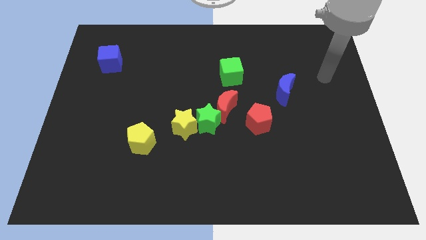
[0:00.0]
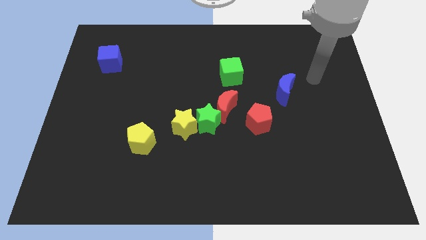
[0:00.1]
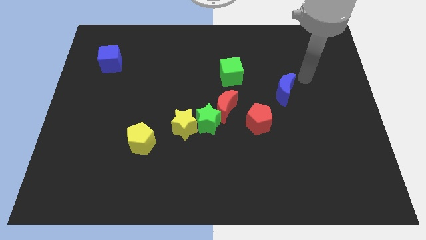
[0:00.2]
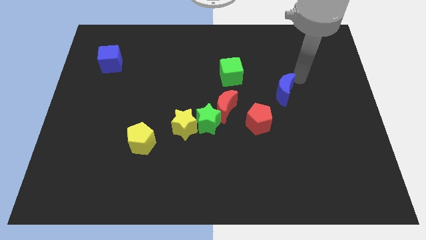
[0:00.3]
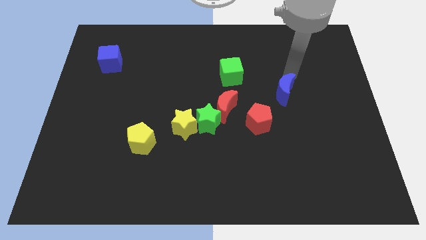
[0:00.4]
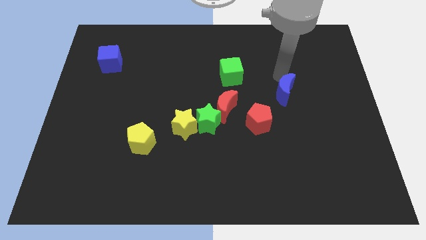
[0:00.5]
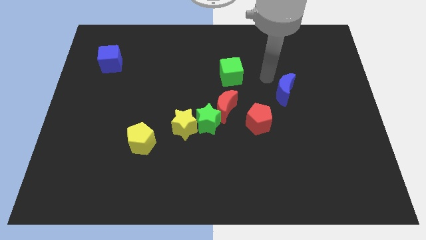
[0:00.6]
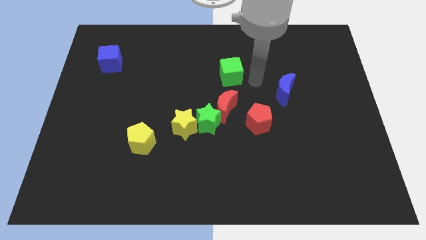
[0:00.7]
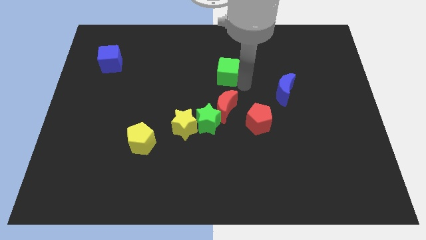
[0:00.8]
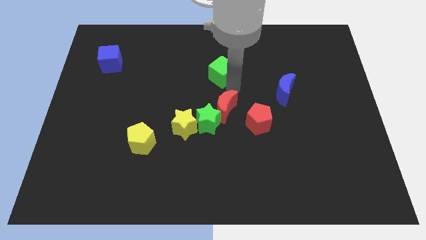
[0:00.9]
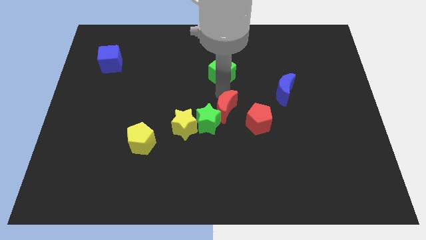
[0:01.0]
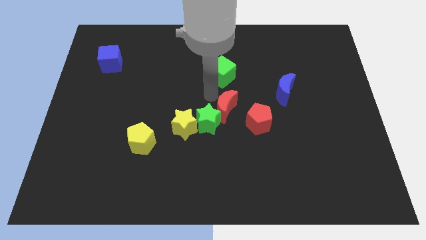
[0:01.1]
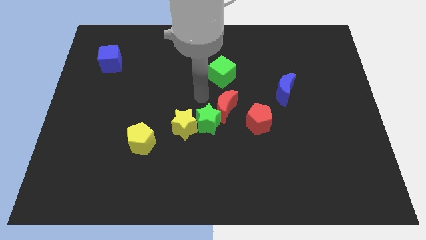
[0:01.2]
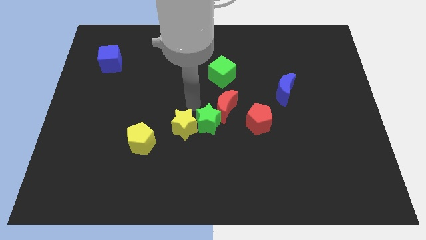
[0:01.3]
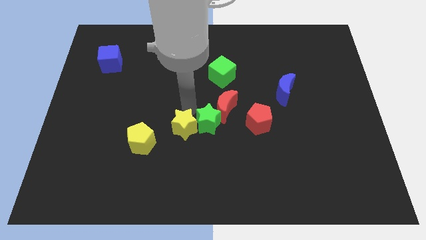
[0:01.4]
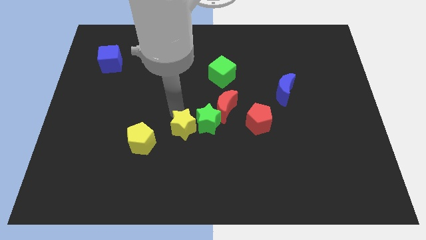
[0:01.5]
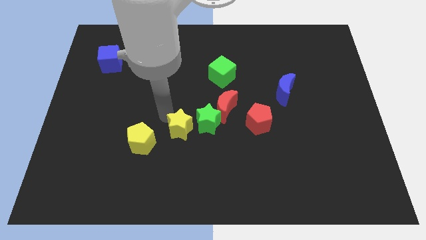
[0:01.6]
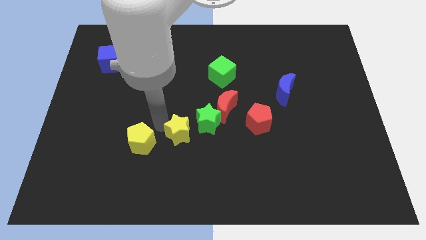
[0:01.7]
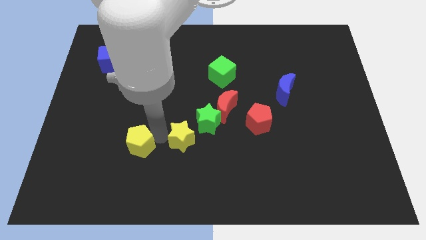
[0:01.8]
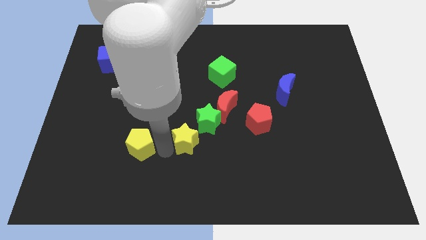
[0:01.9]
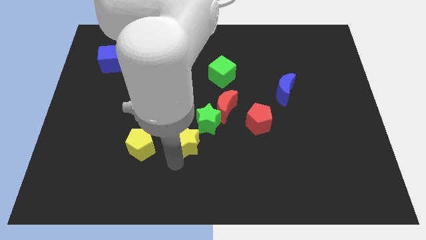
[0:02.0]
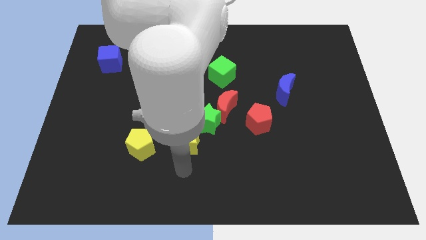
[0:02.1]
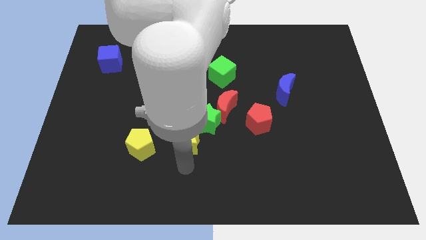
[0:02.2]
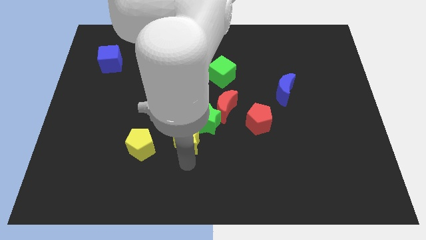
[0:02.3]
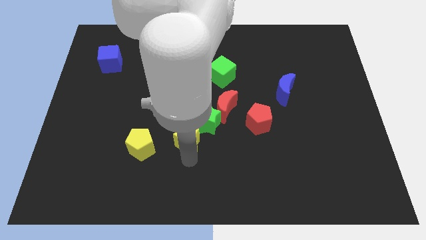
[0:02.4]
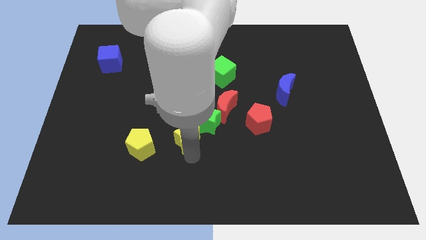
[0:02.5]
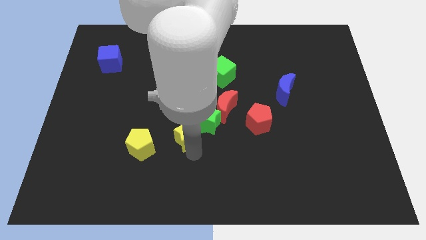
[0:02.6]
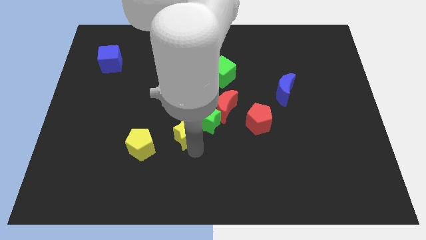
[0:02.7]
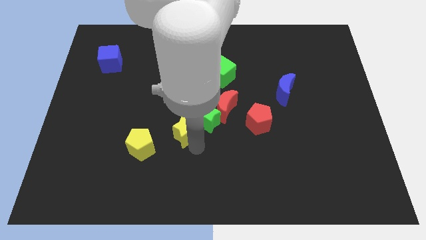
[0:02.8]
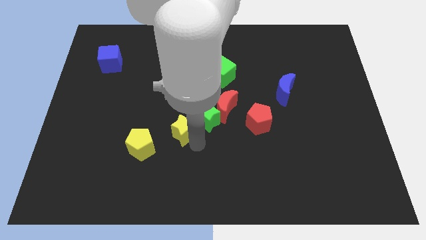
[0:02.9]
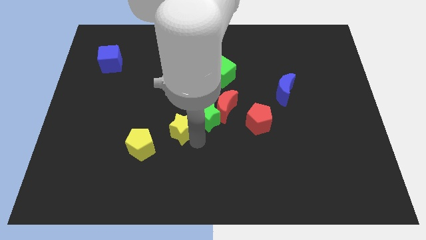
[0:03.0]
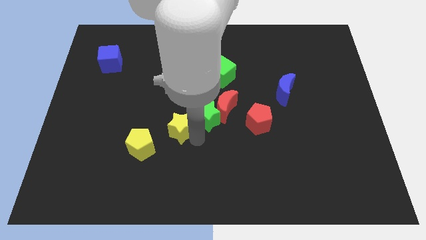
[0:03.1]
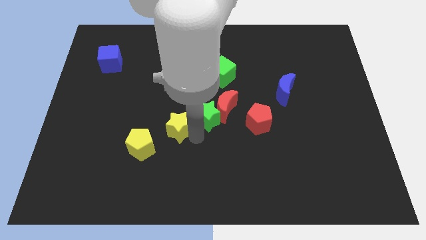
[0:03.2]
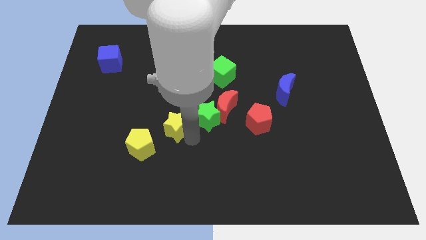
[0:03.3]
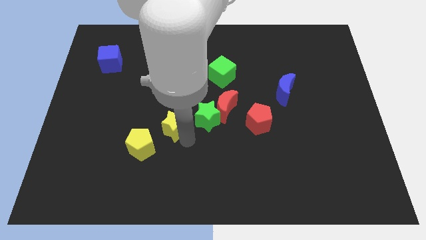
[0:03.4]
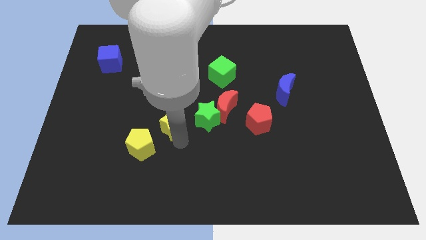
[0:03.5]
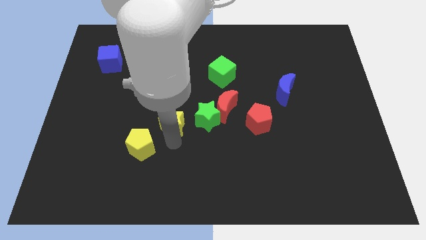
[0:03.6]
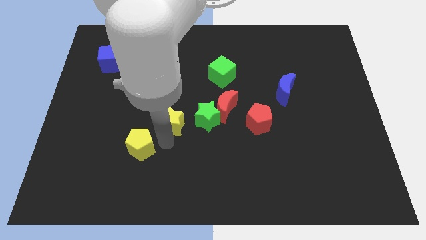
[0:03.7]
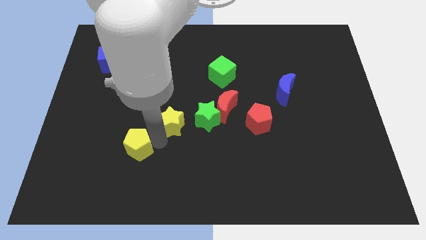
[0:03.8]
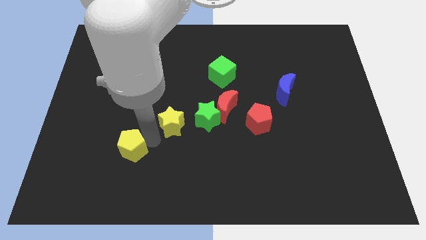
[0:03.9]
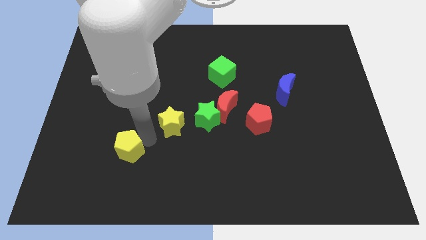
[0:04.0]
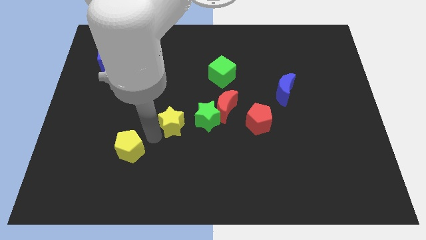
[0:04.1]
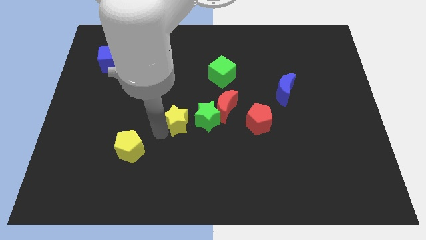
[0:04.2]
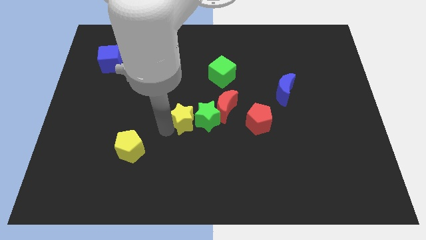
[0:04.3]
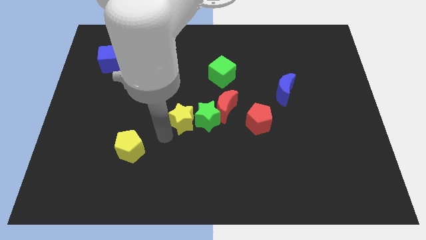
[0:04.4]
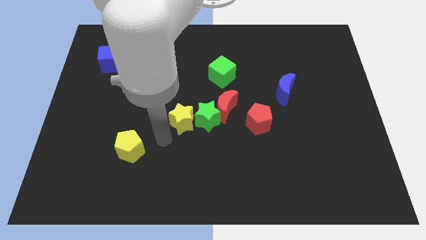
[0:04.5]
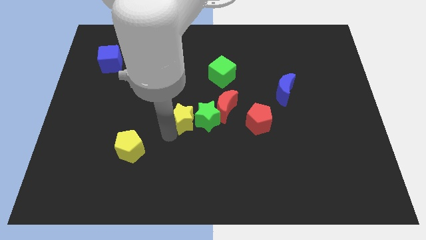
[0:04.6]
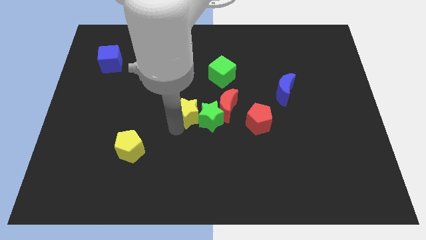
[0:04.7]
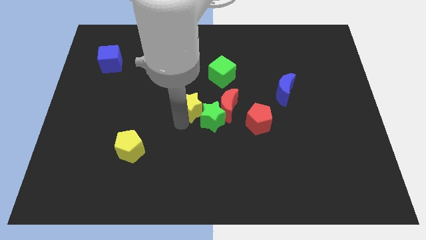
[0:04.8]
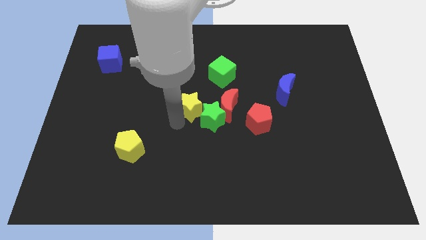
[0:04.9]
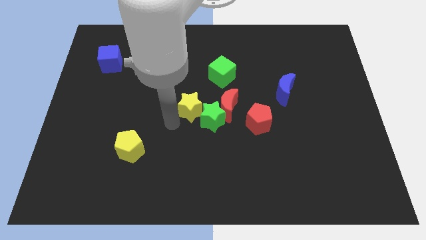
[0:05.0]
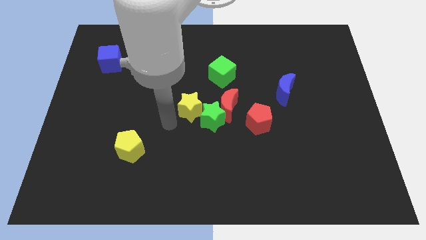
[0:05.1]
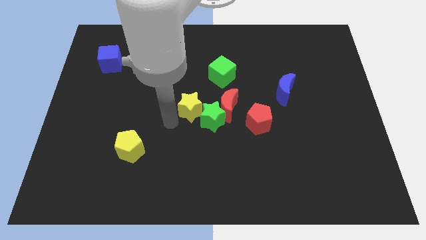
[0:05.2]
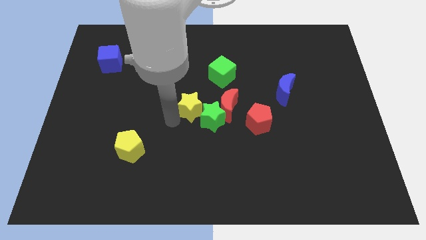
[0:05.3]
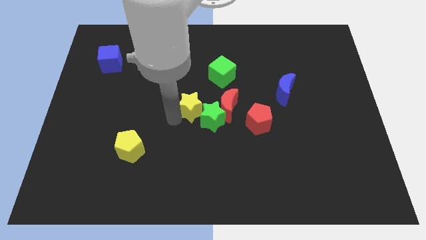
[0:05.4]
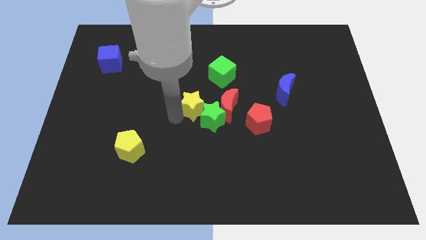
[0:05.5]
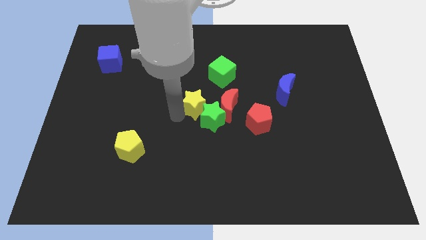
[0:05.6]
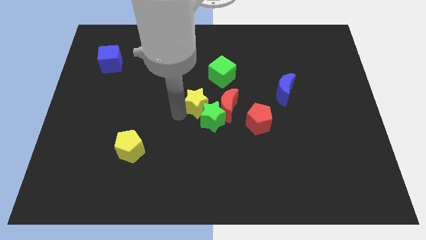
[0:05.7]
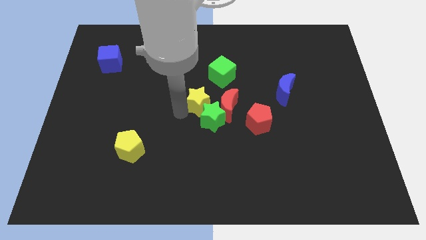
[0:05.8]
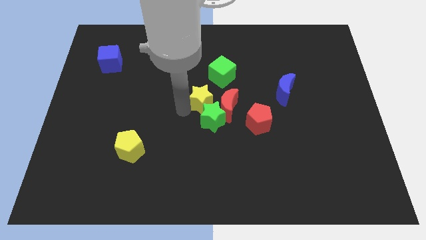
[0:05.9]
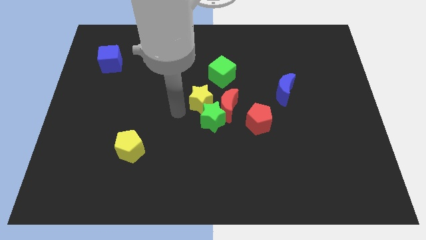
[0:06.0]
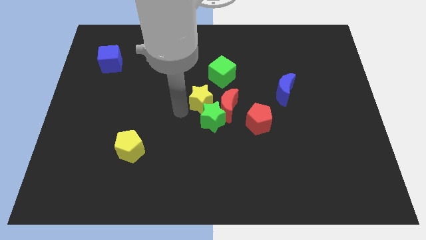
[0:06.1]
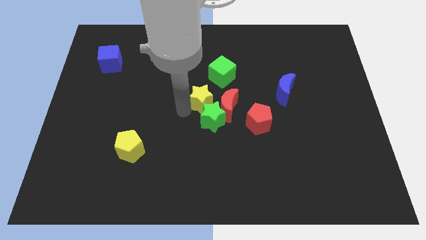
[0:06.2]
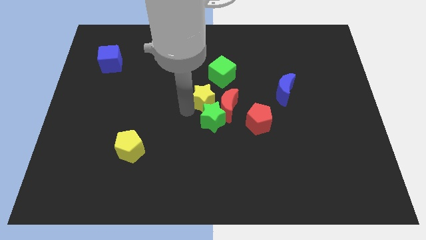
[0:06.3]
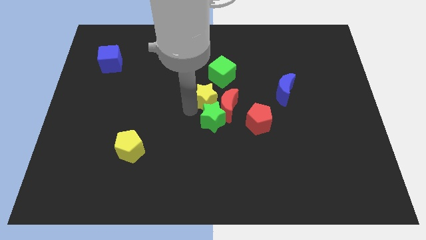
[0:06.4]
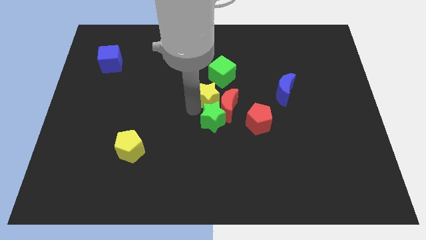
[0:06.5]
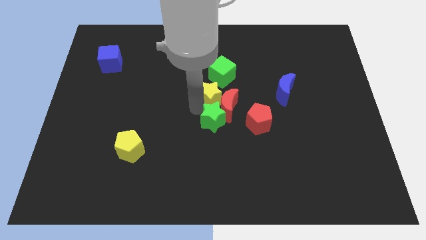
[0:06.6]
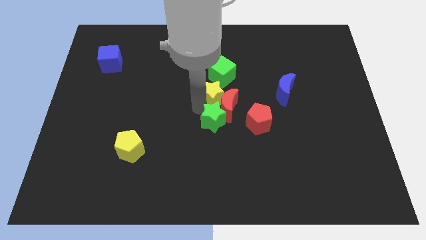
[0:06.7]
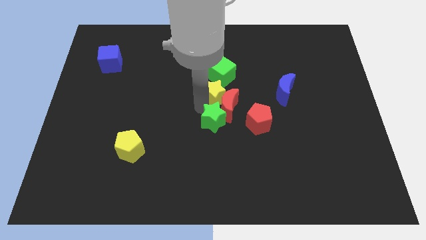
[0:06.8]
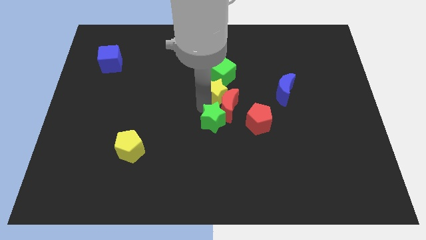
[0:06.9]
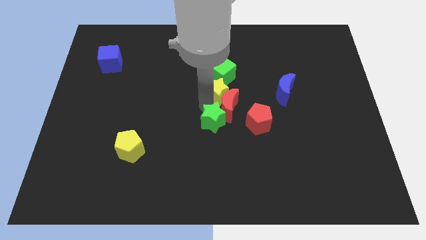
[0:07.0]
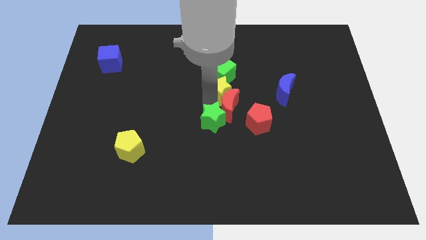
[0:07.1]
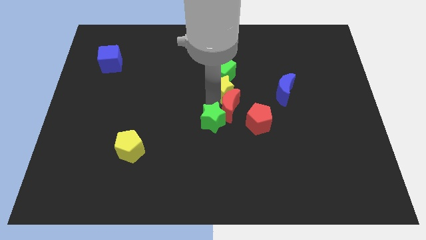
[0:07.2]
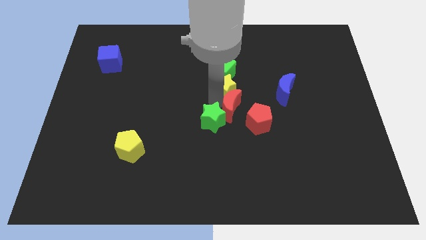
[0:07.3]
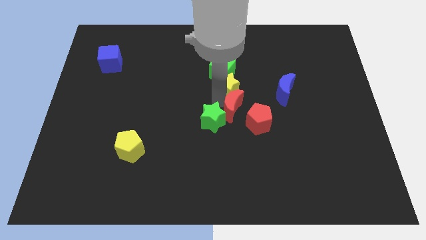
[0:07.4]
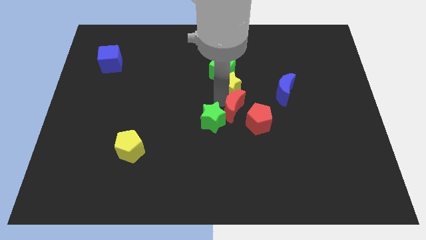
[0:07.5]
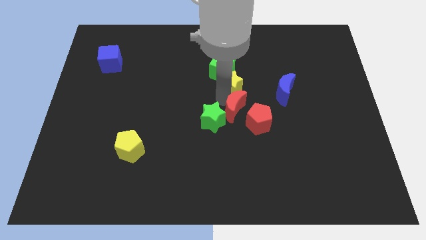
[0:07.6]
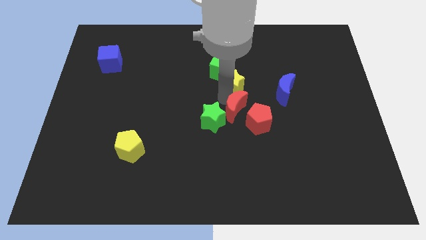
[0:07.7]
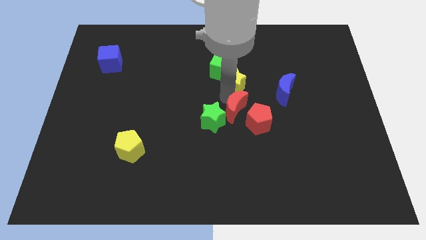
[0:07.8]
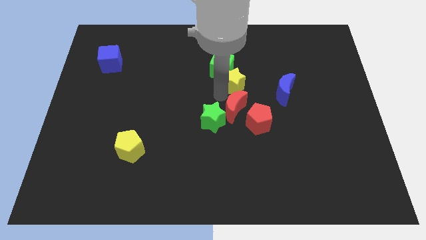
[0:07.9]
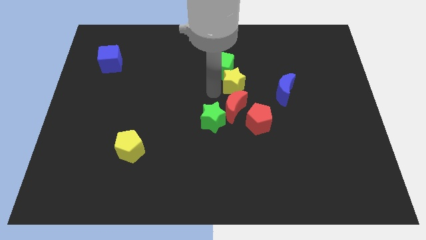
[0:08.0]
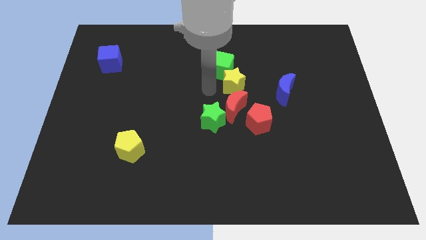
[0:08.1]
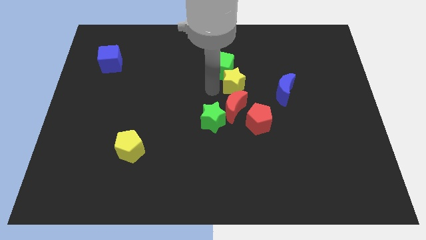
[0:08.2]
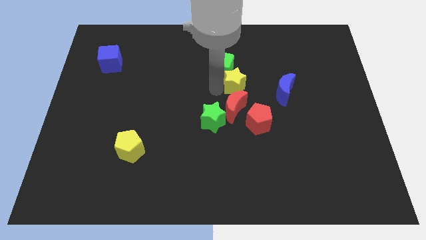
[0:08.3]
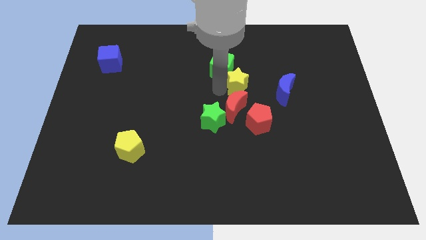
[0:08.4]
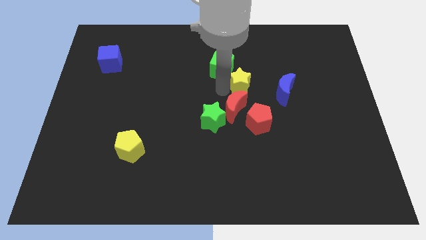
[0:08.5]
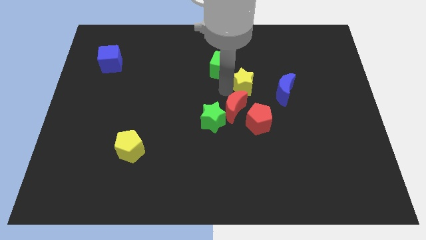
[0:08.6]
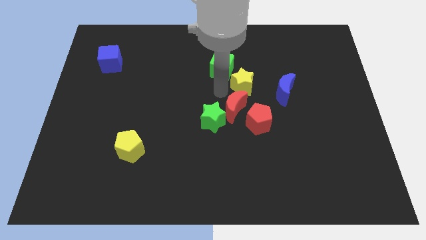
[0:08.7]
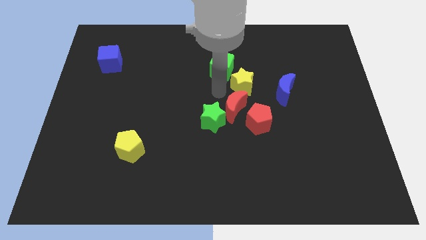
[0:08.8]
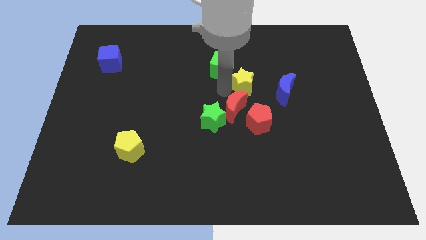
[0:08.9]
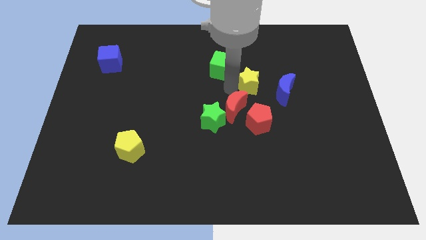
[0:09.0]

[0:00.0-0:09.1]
move the yellow star diagonally up and right
